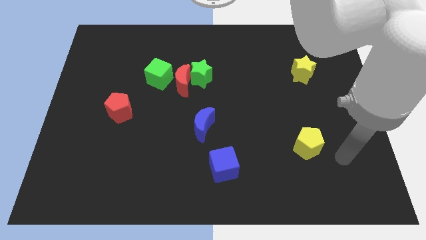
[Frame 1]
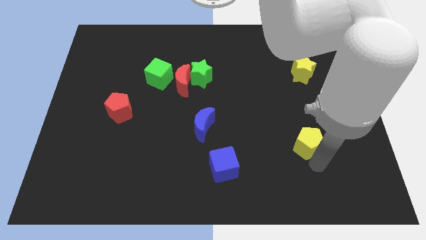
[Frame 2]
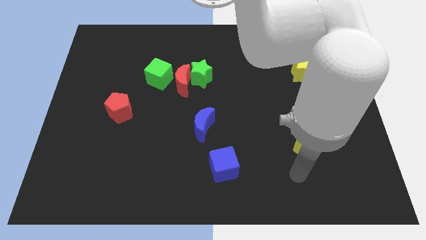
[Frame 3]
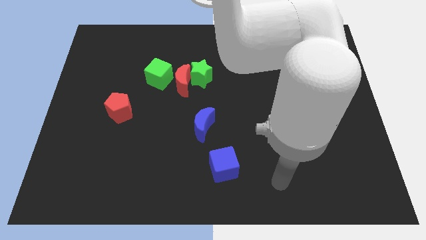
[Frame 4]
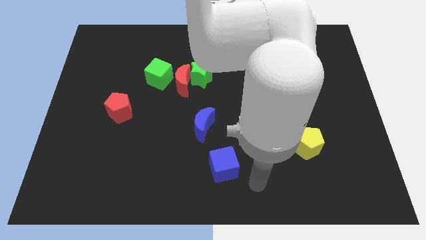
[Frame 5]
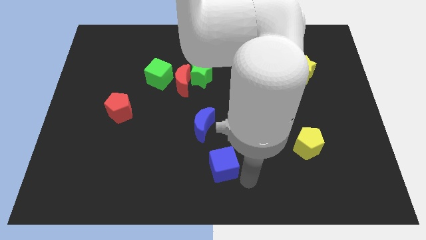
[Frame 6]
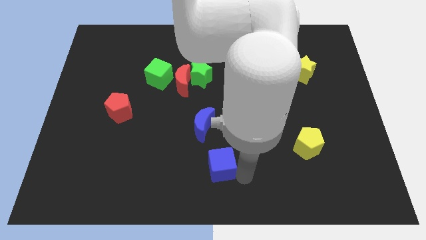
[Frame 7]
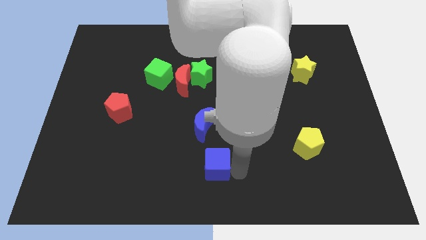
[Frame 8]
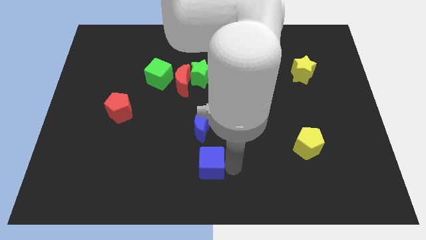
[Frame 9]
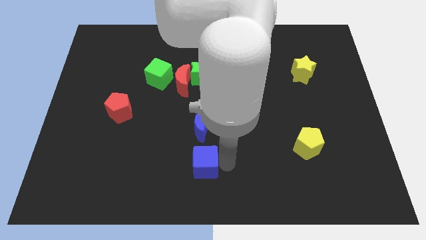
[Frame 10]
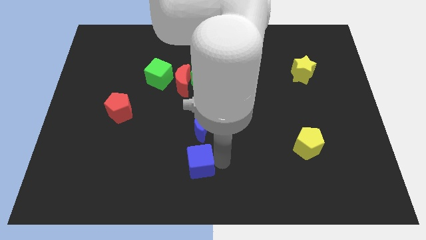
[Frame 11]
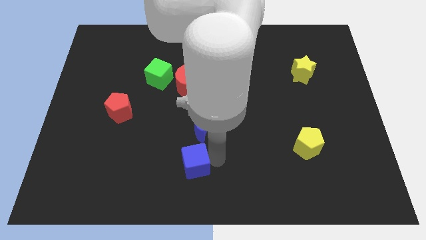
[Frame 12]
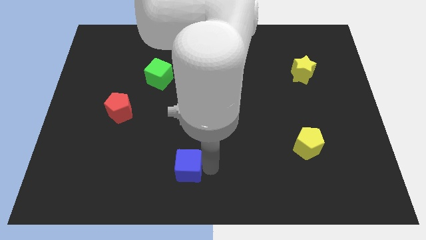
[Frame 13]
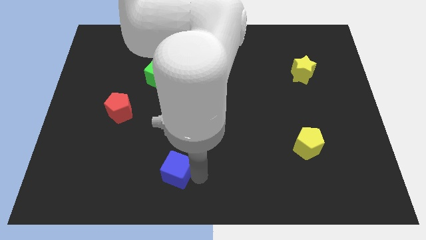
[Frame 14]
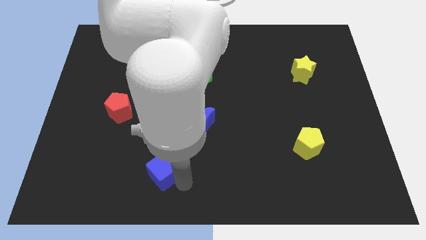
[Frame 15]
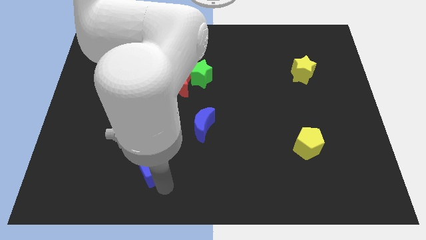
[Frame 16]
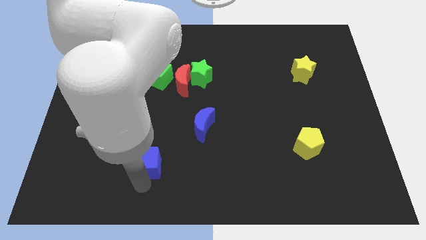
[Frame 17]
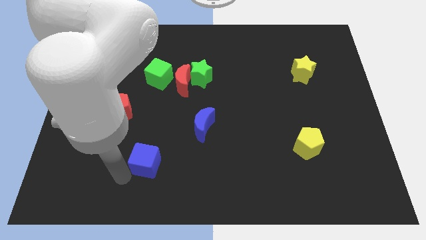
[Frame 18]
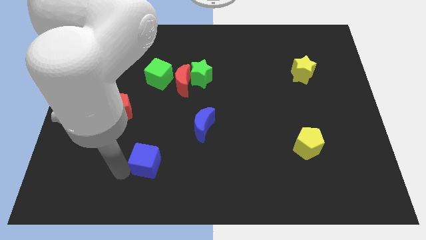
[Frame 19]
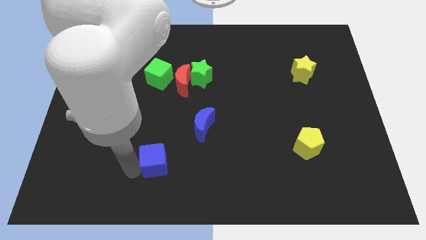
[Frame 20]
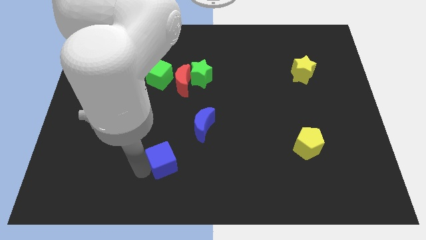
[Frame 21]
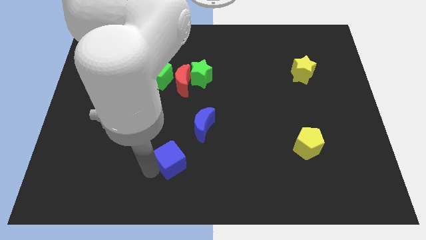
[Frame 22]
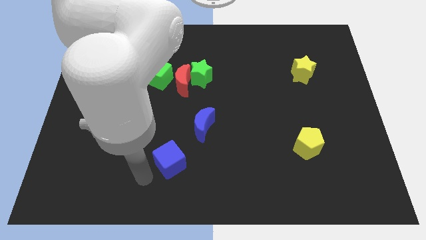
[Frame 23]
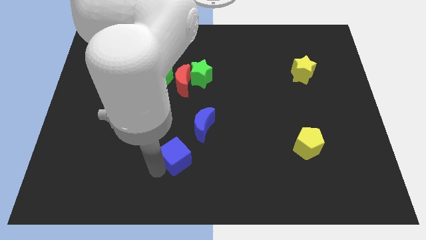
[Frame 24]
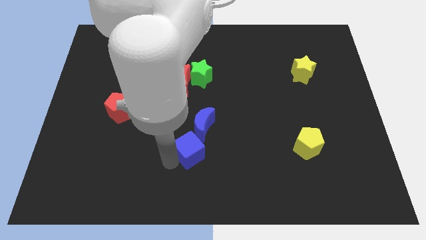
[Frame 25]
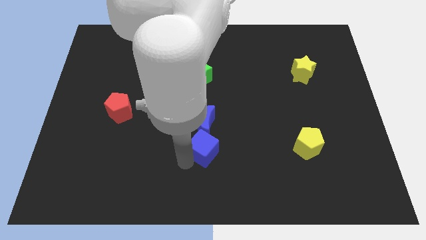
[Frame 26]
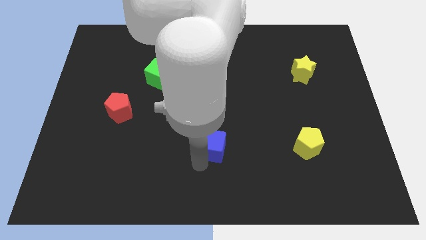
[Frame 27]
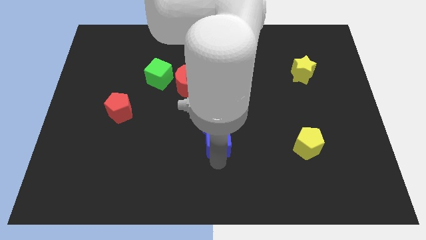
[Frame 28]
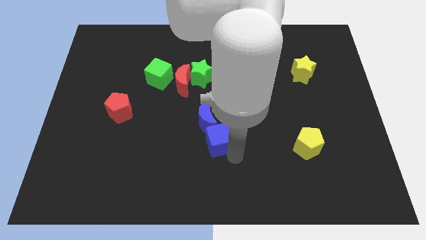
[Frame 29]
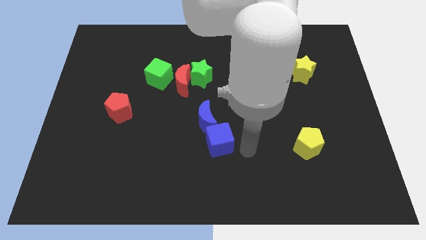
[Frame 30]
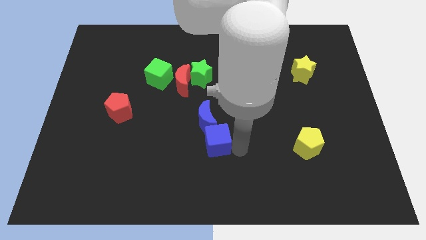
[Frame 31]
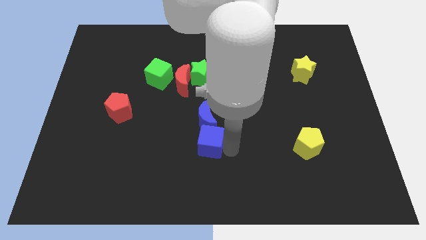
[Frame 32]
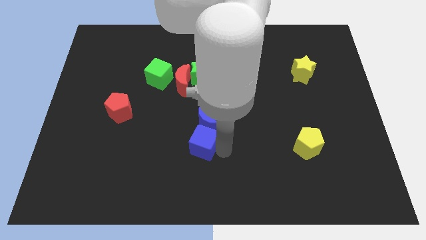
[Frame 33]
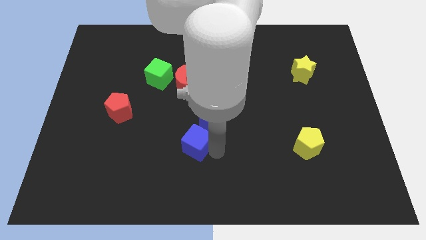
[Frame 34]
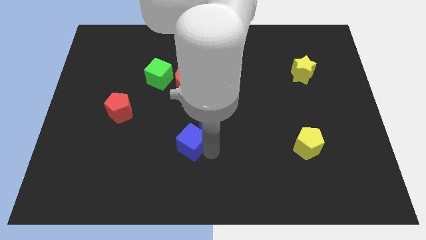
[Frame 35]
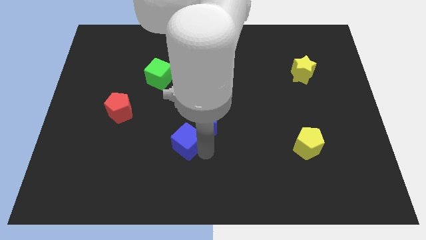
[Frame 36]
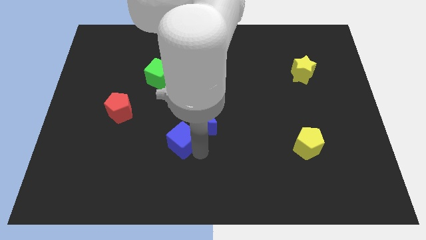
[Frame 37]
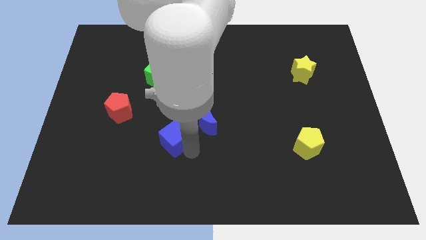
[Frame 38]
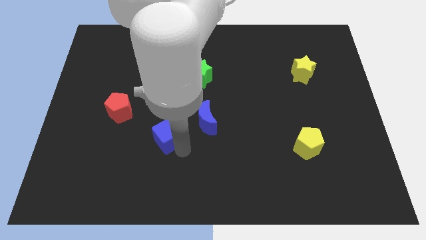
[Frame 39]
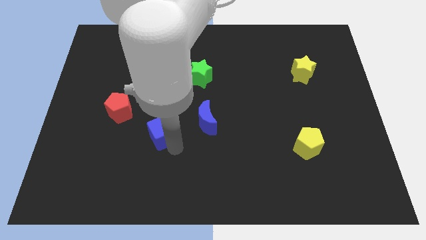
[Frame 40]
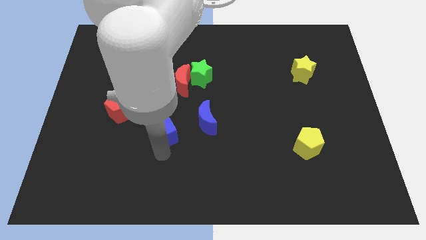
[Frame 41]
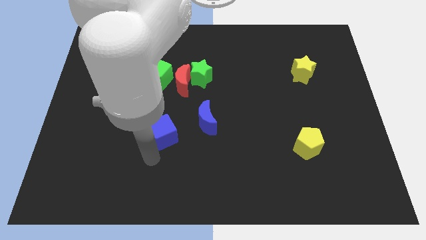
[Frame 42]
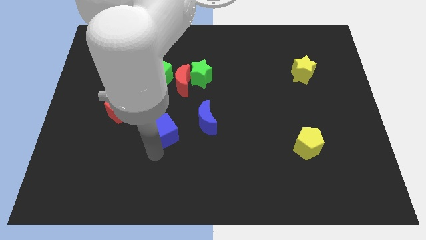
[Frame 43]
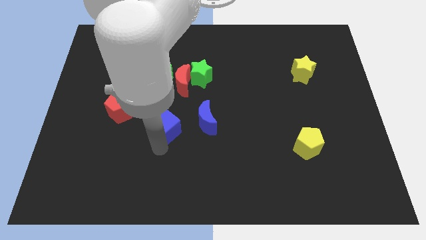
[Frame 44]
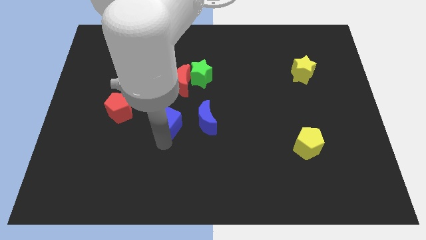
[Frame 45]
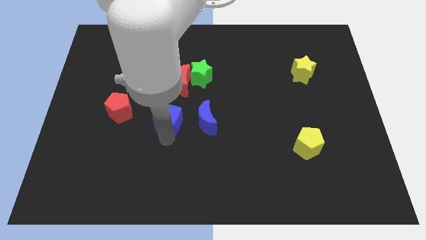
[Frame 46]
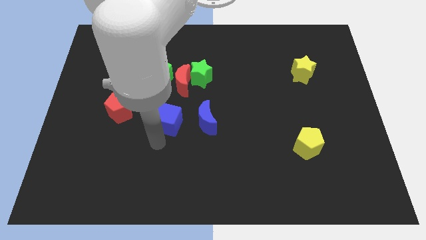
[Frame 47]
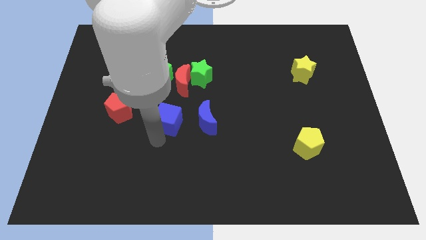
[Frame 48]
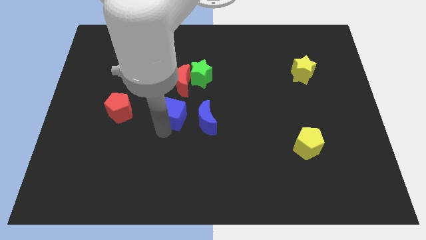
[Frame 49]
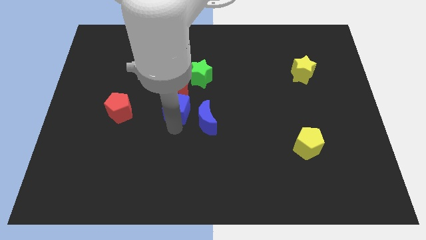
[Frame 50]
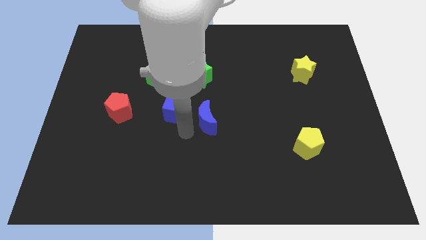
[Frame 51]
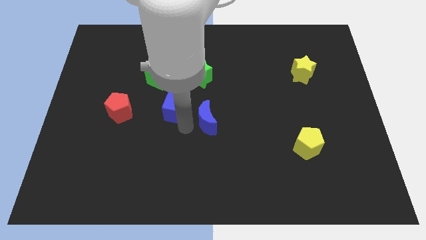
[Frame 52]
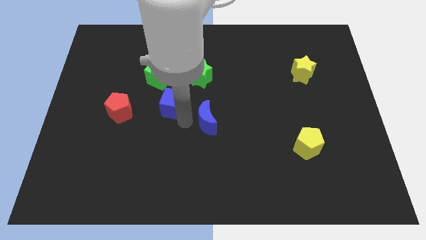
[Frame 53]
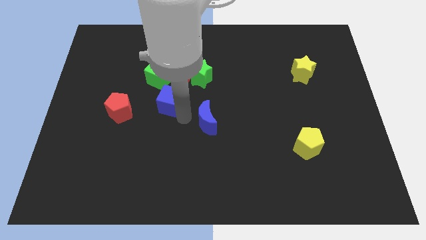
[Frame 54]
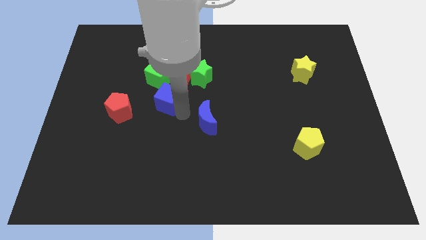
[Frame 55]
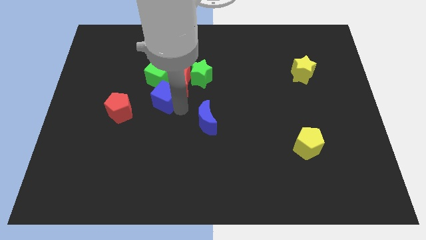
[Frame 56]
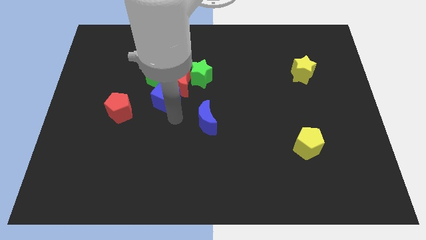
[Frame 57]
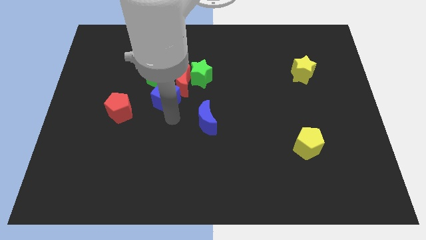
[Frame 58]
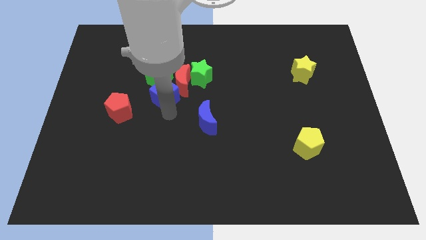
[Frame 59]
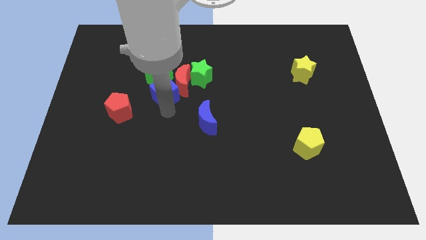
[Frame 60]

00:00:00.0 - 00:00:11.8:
push the blue cube towards the green cube

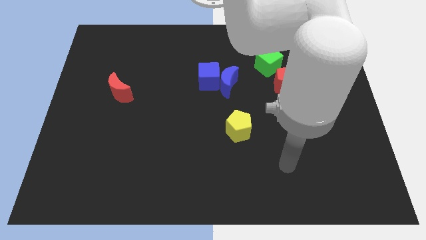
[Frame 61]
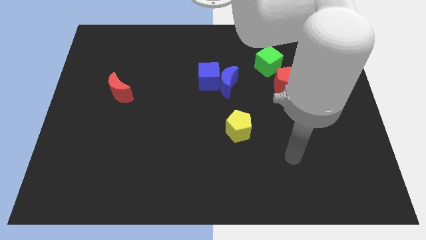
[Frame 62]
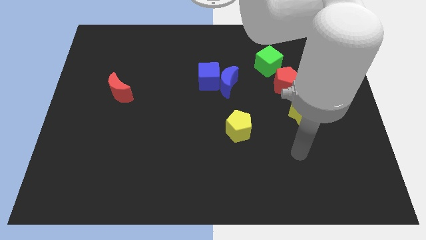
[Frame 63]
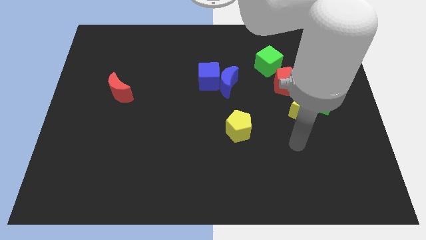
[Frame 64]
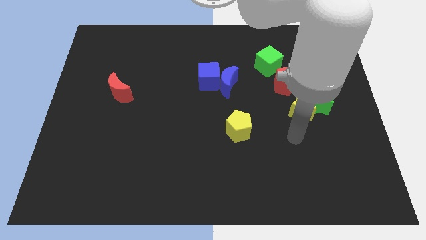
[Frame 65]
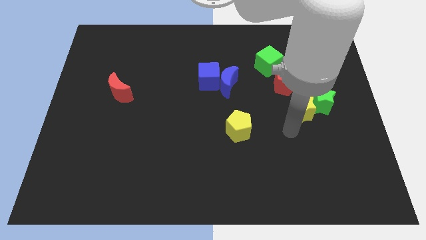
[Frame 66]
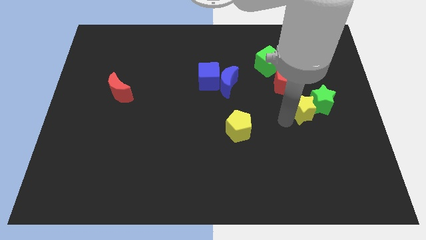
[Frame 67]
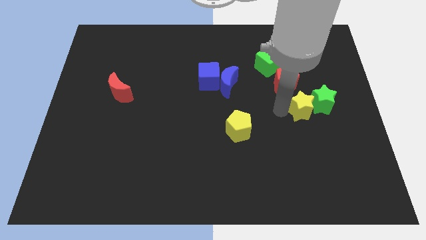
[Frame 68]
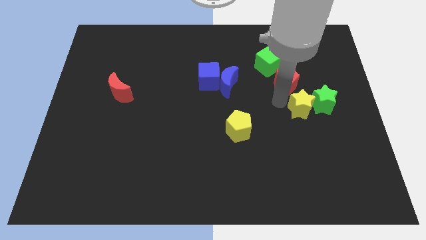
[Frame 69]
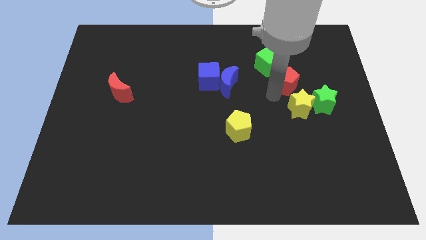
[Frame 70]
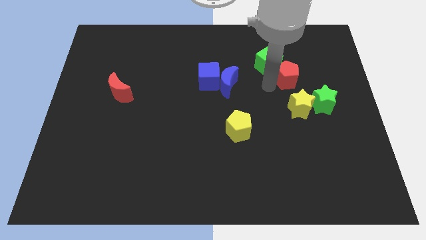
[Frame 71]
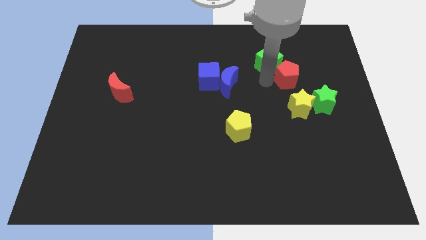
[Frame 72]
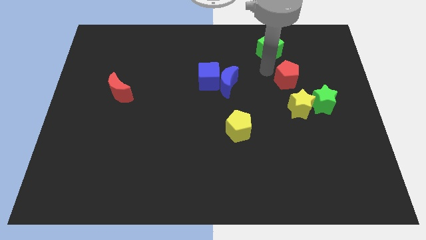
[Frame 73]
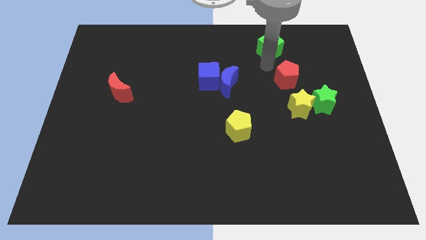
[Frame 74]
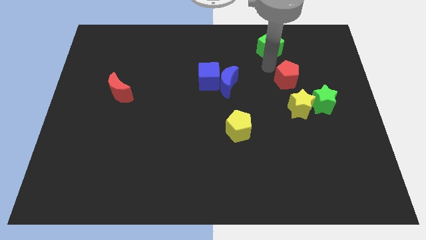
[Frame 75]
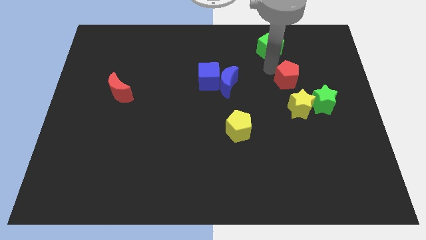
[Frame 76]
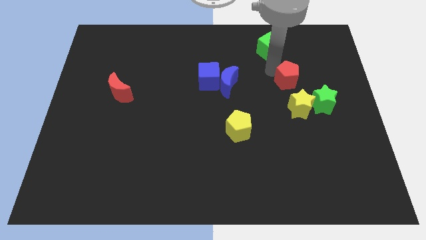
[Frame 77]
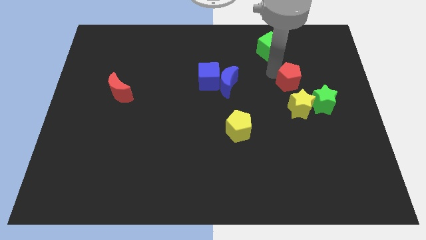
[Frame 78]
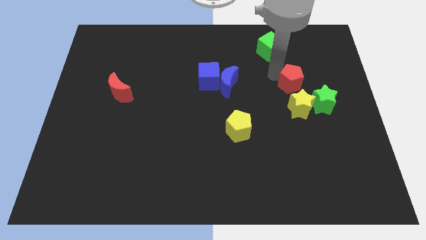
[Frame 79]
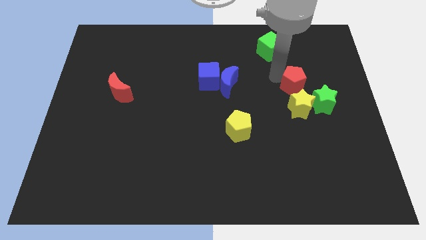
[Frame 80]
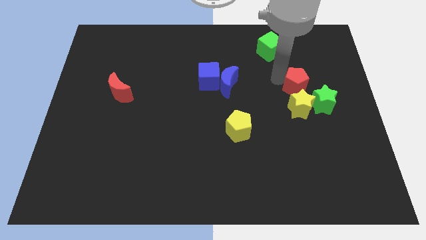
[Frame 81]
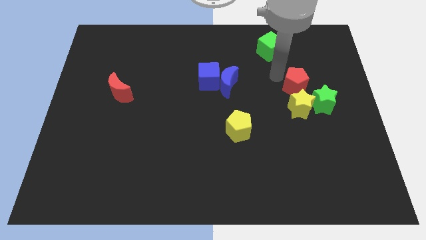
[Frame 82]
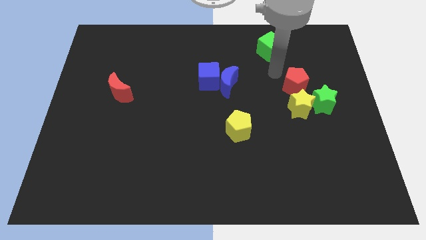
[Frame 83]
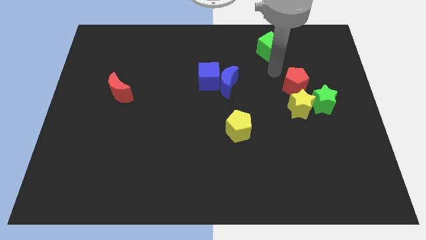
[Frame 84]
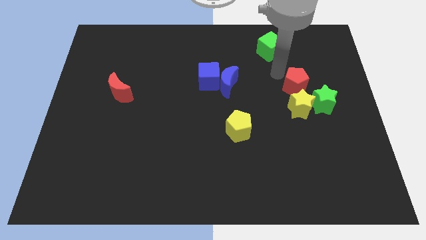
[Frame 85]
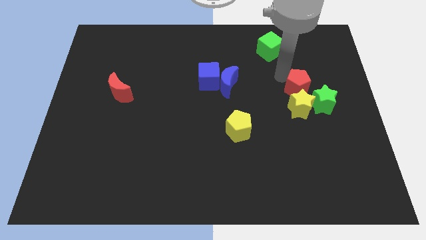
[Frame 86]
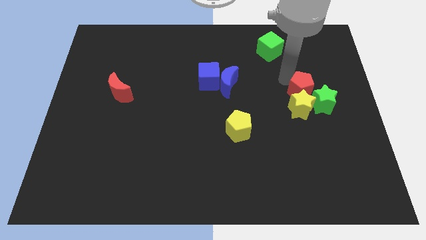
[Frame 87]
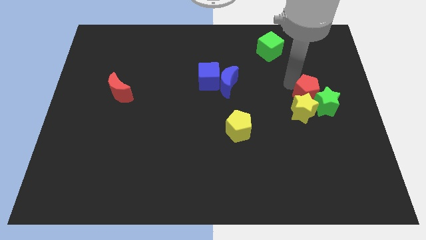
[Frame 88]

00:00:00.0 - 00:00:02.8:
push the red pentagon next to the green star
